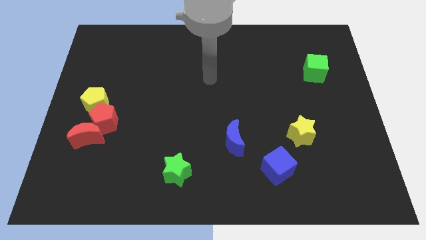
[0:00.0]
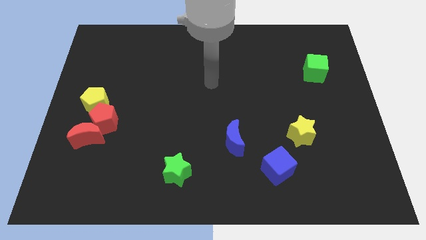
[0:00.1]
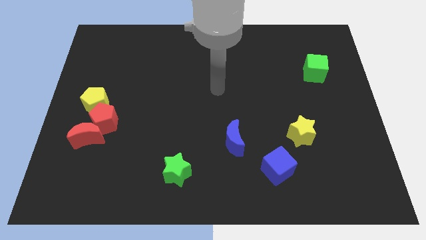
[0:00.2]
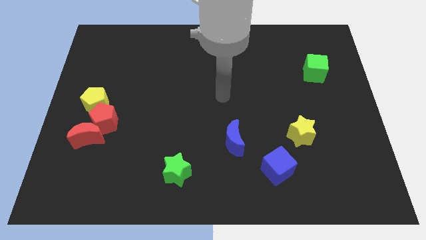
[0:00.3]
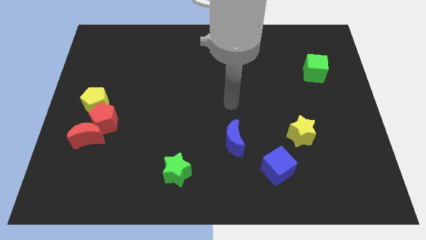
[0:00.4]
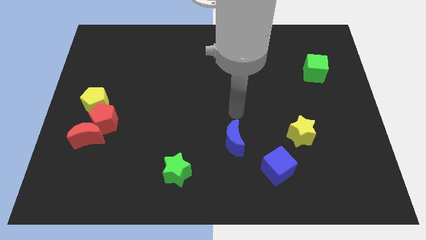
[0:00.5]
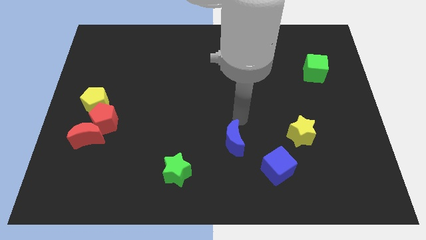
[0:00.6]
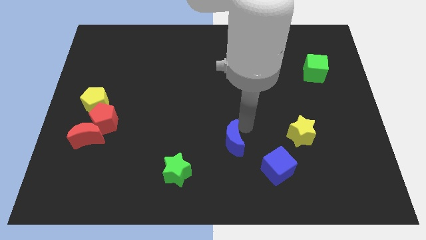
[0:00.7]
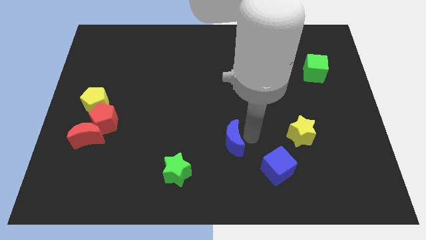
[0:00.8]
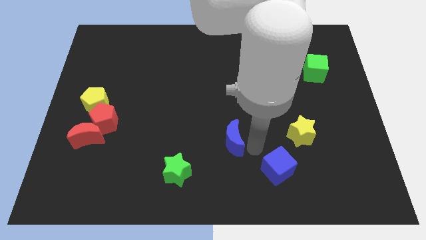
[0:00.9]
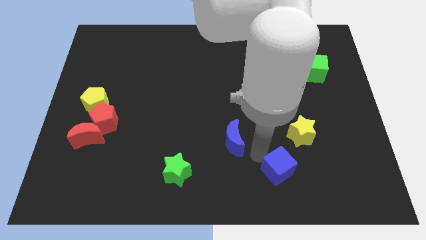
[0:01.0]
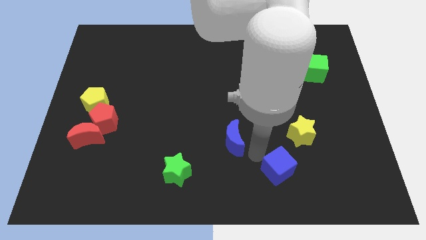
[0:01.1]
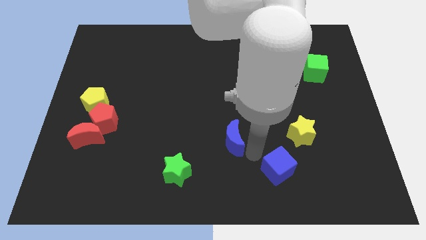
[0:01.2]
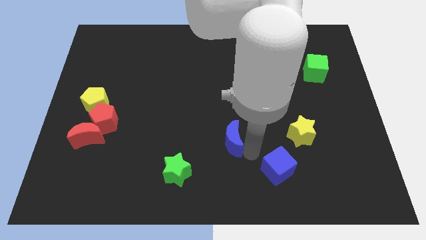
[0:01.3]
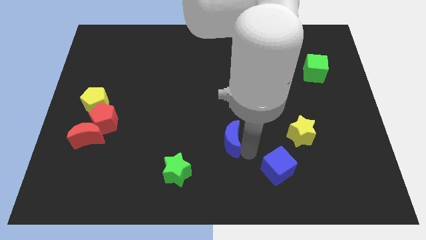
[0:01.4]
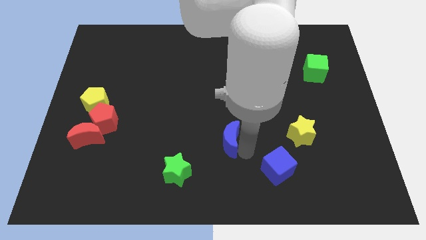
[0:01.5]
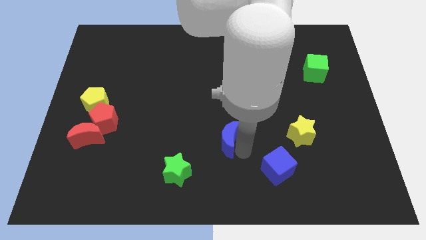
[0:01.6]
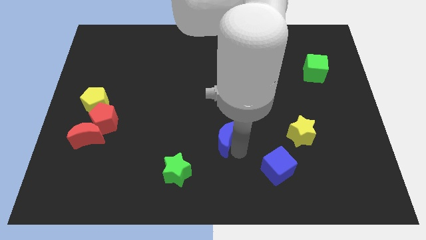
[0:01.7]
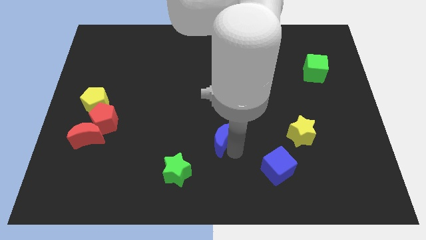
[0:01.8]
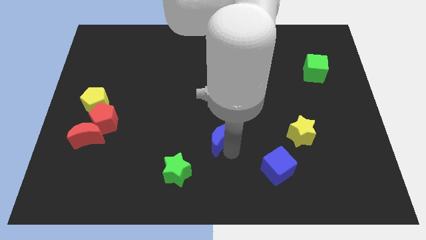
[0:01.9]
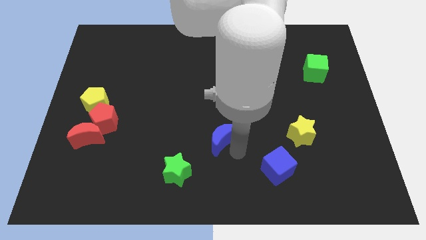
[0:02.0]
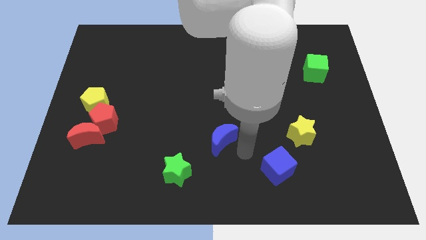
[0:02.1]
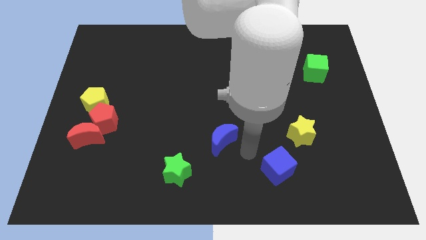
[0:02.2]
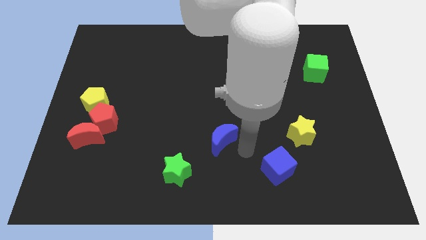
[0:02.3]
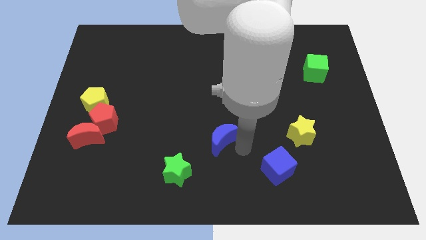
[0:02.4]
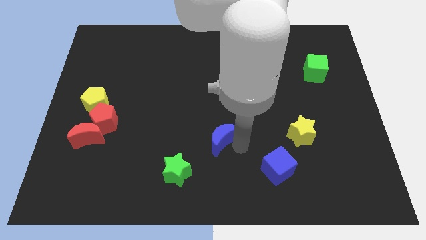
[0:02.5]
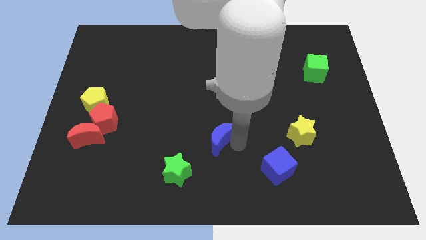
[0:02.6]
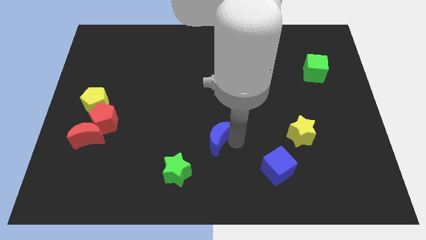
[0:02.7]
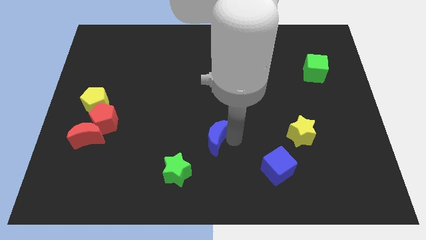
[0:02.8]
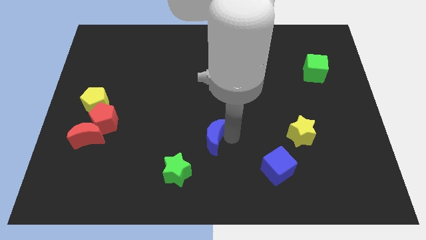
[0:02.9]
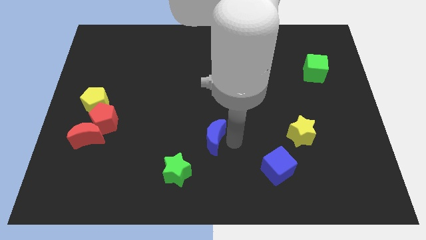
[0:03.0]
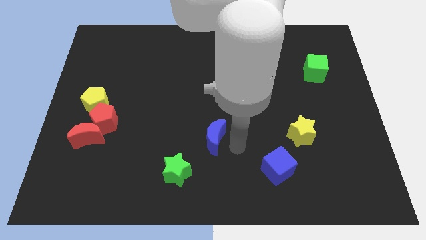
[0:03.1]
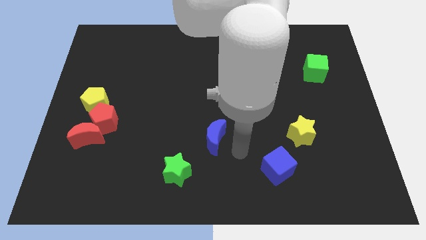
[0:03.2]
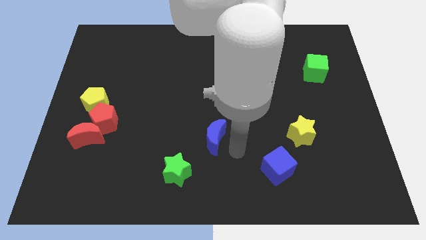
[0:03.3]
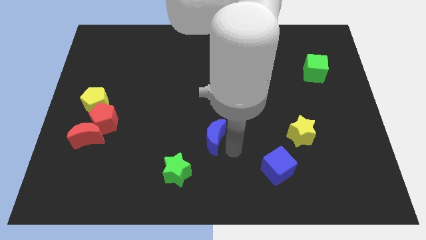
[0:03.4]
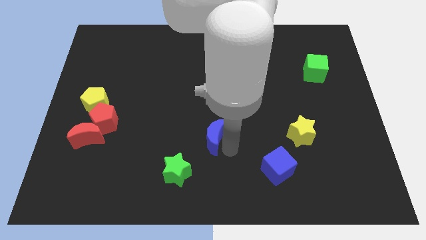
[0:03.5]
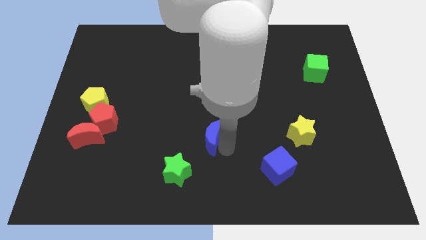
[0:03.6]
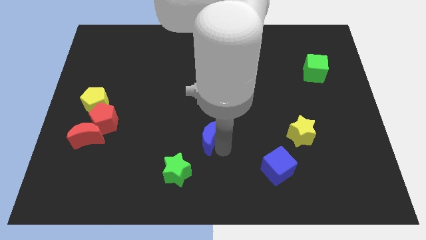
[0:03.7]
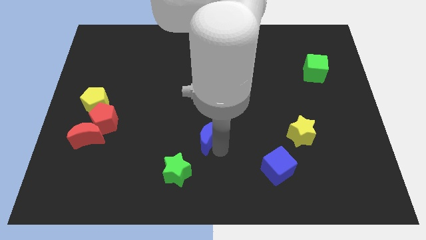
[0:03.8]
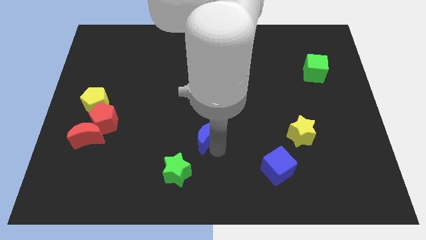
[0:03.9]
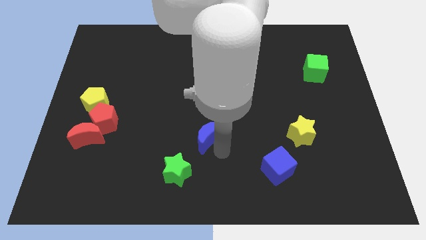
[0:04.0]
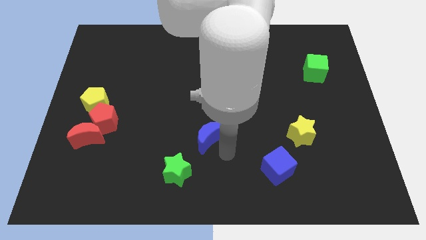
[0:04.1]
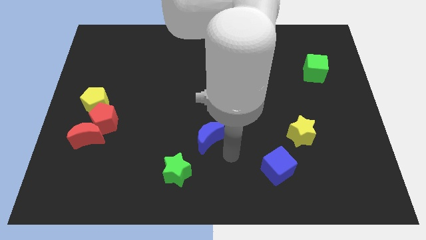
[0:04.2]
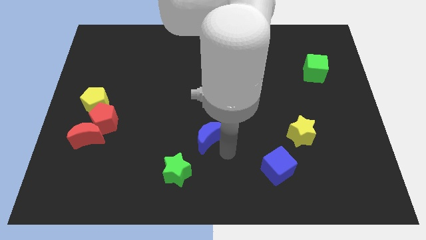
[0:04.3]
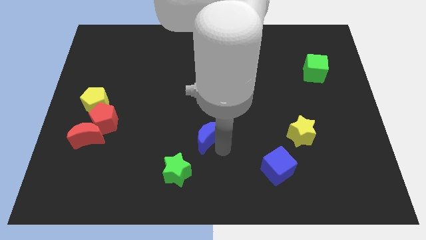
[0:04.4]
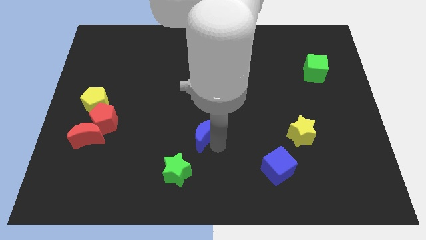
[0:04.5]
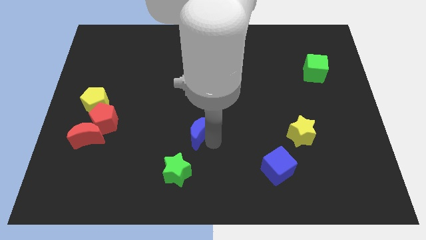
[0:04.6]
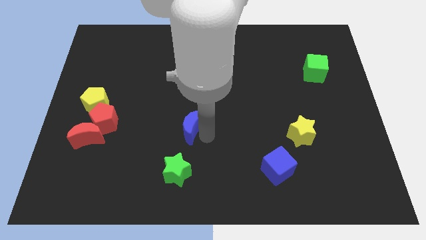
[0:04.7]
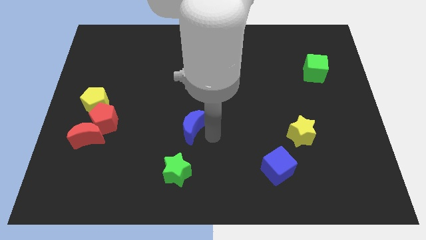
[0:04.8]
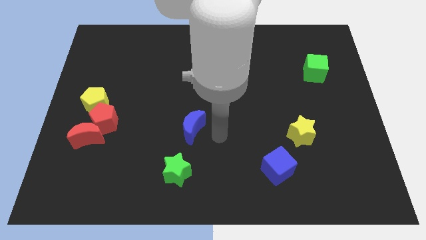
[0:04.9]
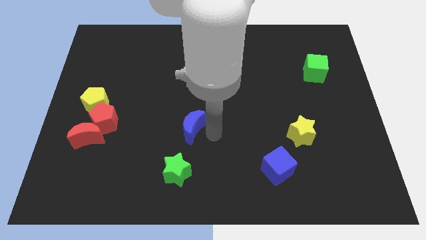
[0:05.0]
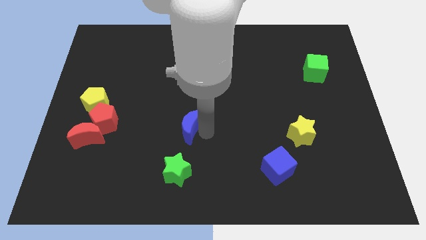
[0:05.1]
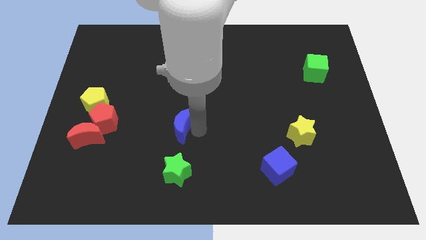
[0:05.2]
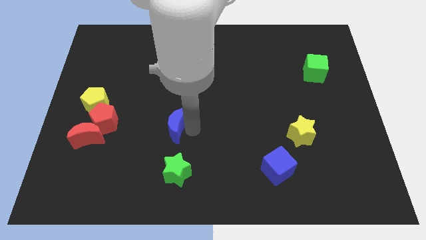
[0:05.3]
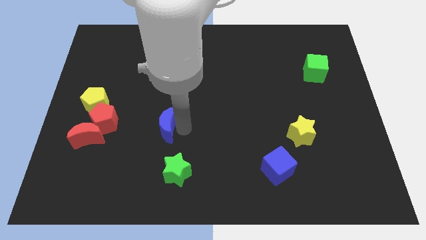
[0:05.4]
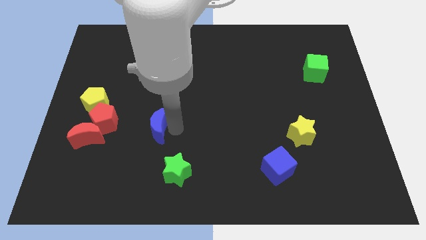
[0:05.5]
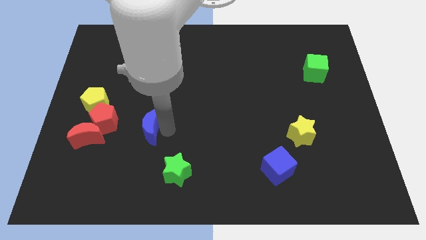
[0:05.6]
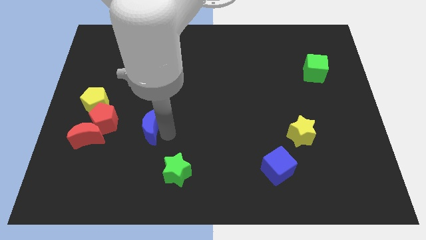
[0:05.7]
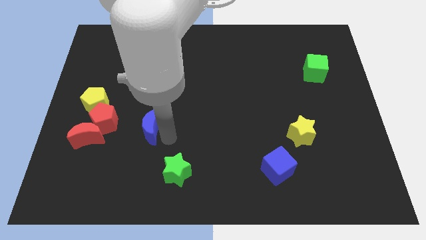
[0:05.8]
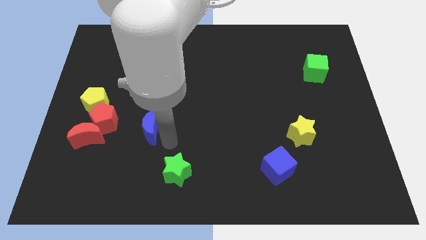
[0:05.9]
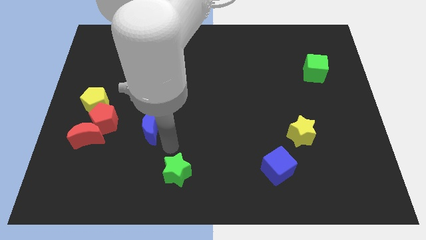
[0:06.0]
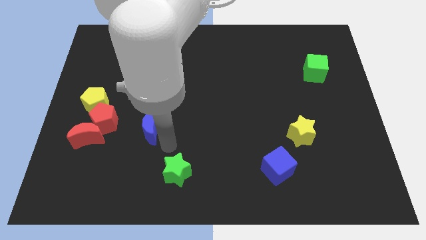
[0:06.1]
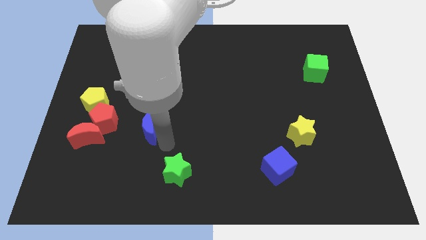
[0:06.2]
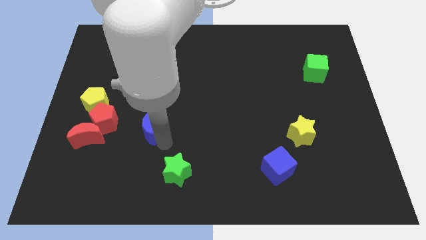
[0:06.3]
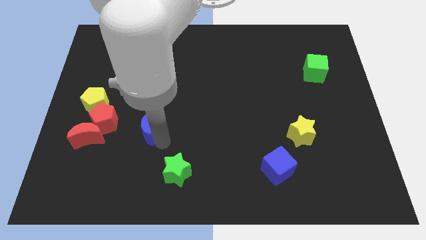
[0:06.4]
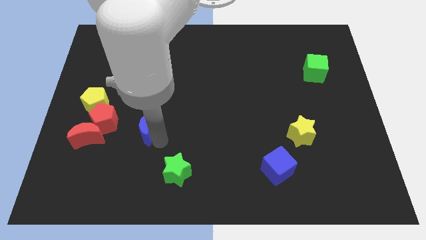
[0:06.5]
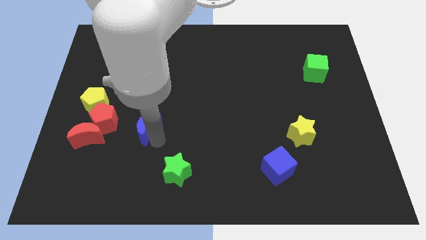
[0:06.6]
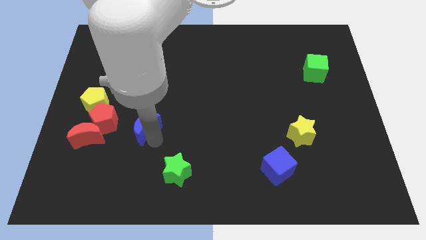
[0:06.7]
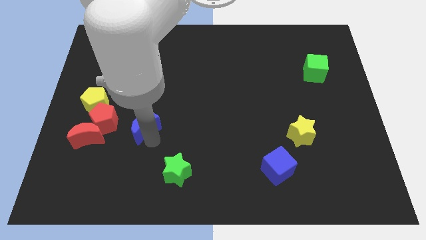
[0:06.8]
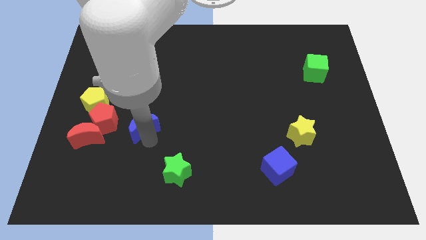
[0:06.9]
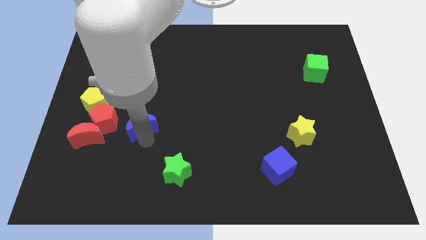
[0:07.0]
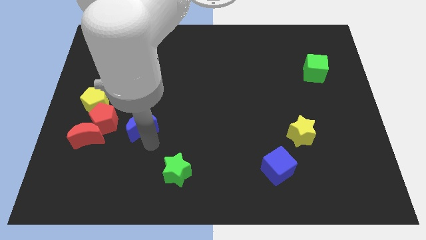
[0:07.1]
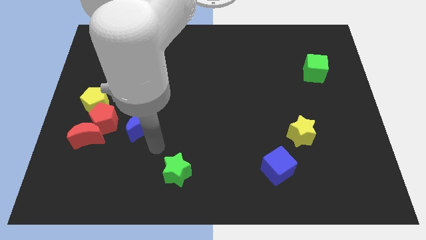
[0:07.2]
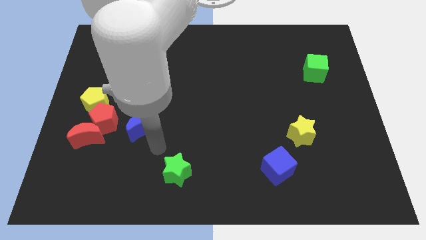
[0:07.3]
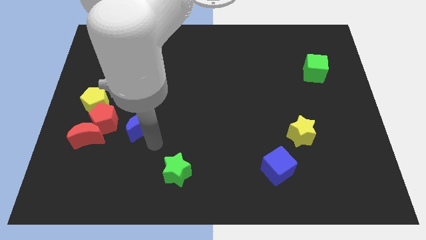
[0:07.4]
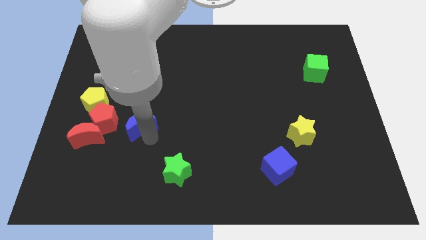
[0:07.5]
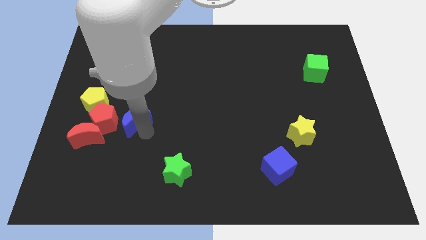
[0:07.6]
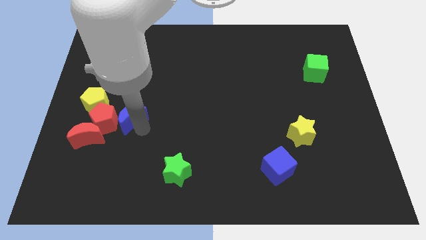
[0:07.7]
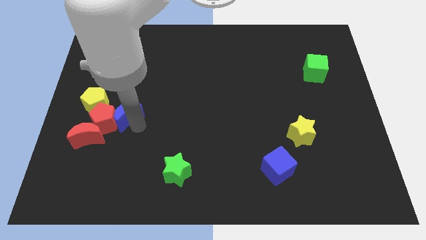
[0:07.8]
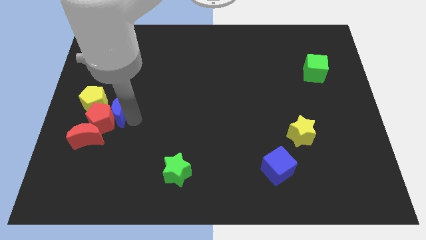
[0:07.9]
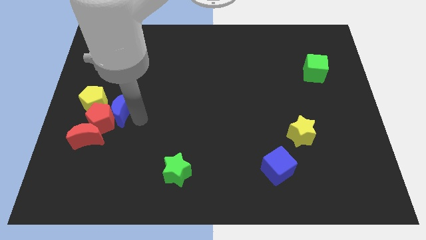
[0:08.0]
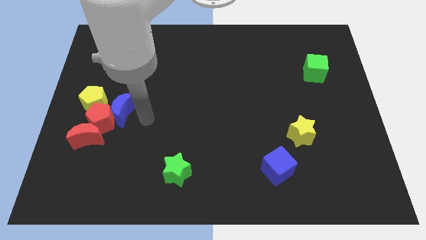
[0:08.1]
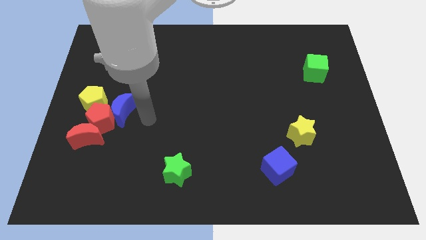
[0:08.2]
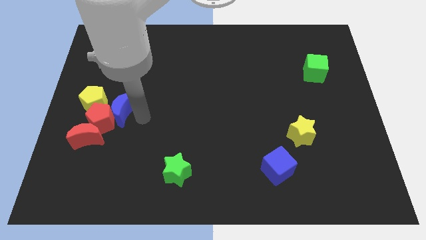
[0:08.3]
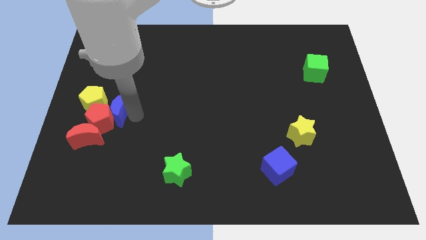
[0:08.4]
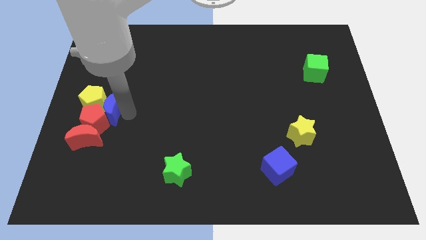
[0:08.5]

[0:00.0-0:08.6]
push the blue moon next to the yellow pentagon
